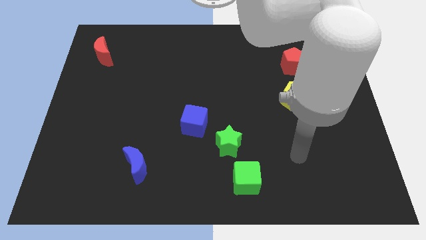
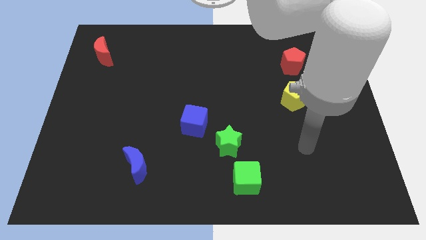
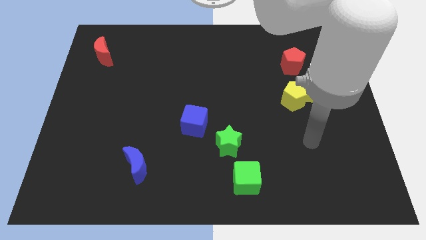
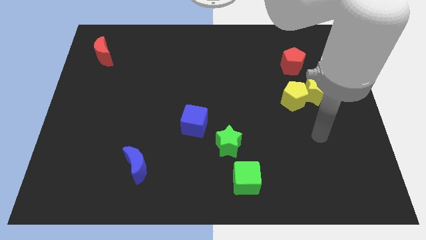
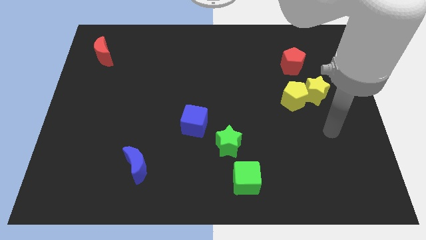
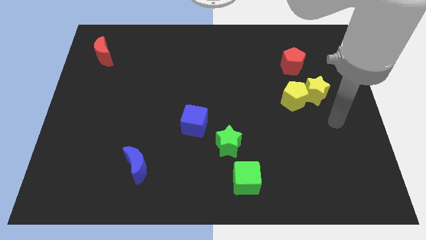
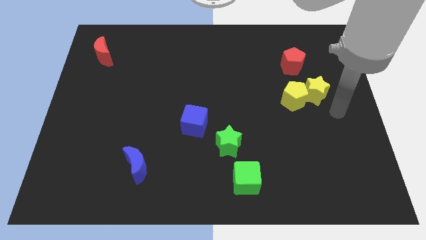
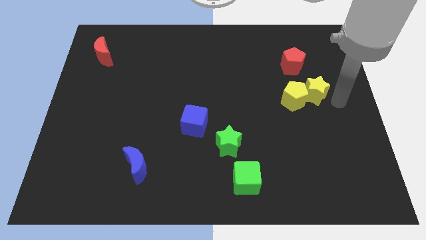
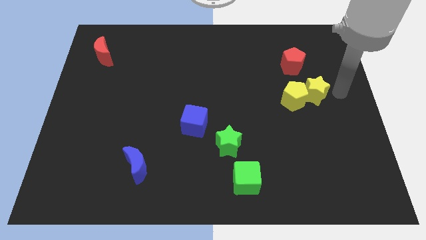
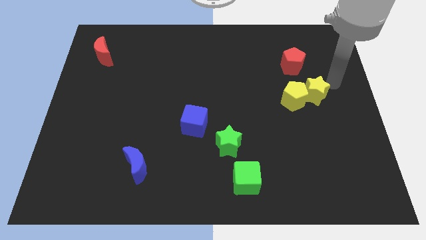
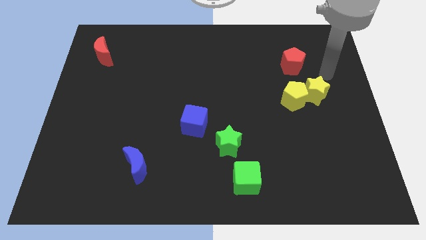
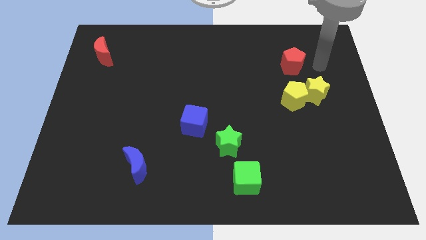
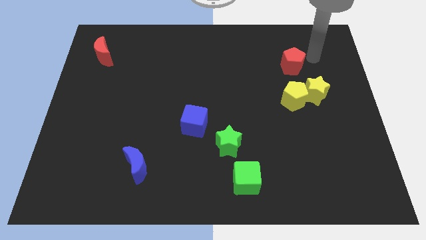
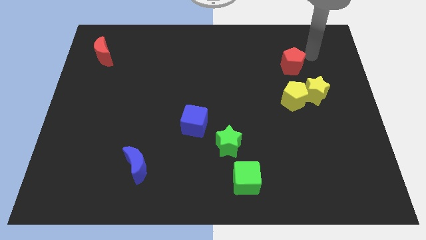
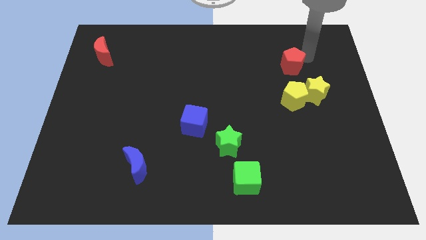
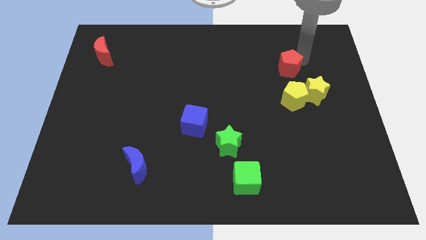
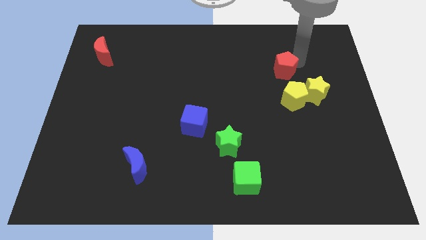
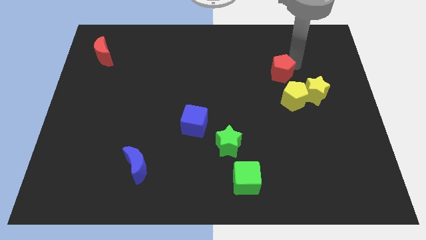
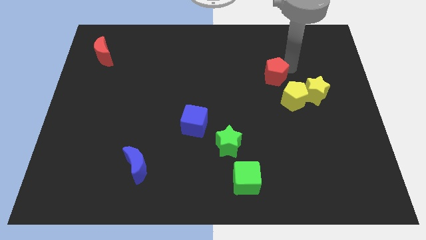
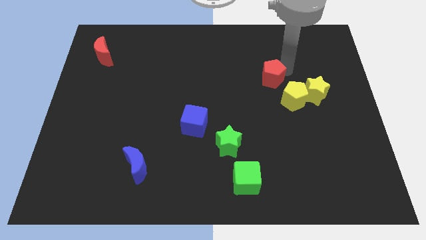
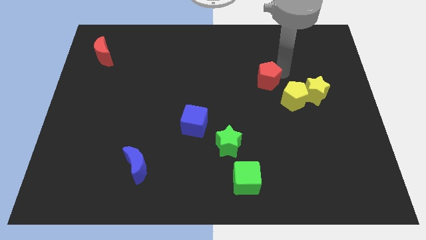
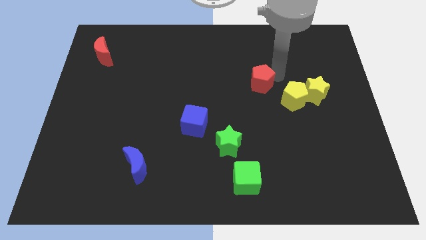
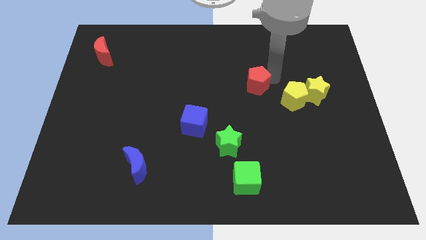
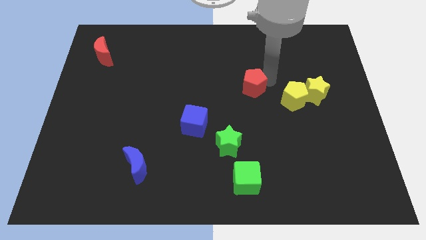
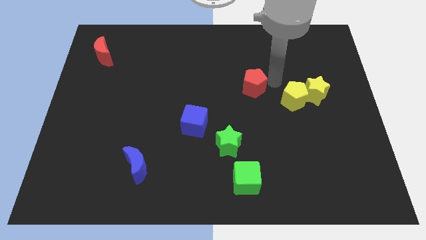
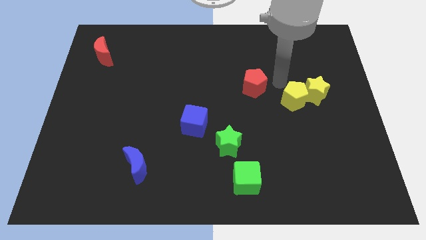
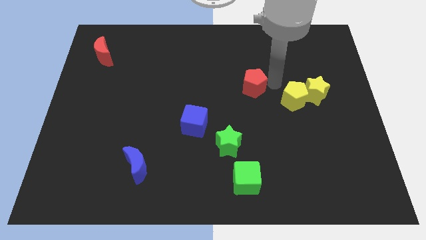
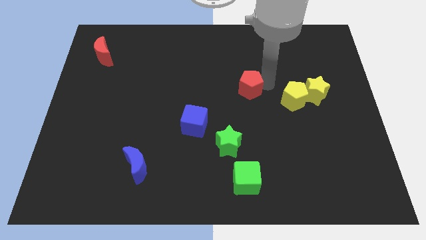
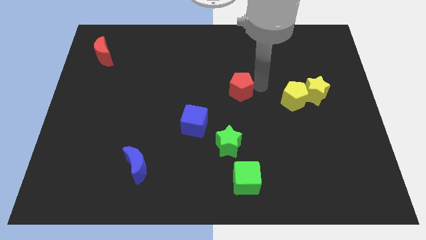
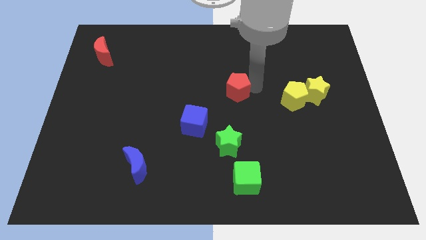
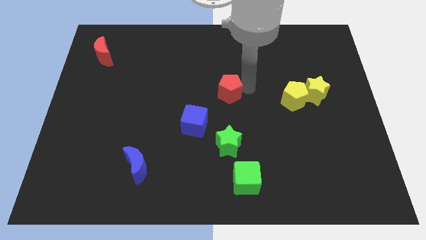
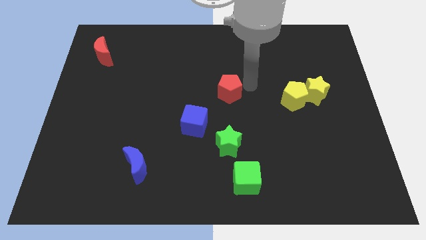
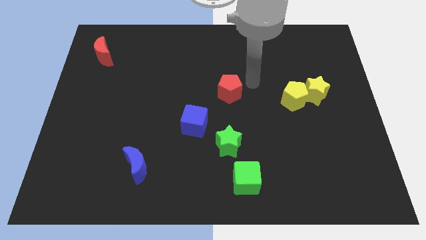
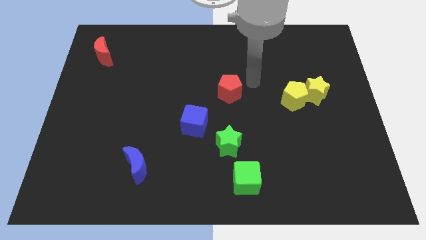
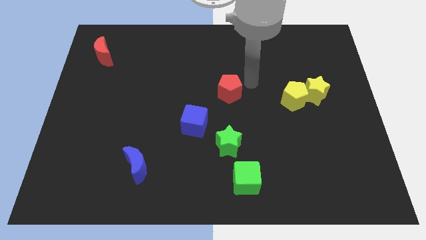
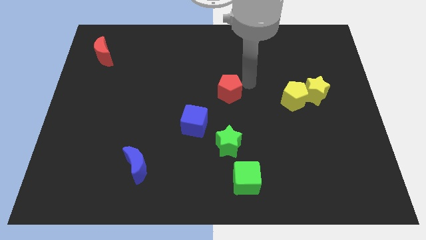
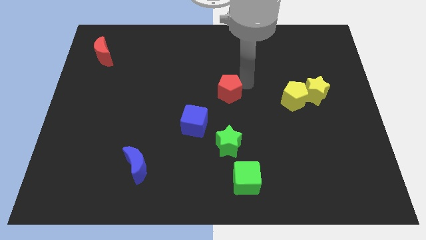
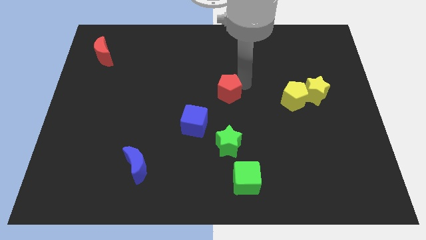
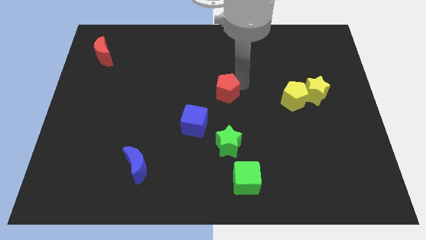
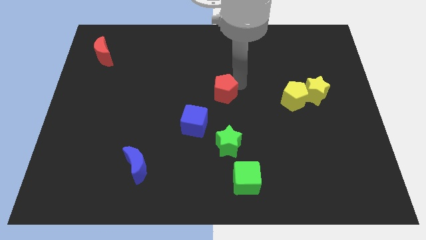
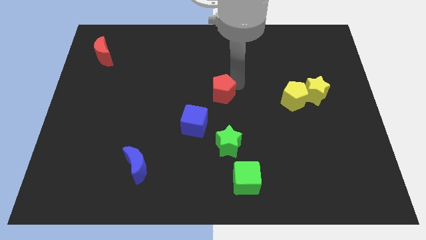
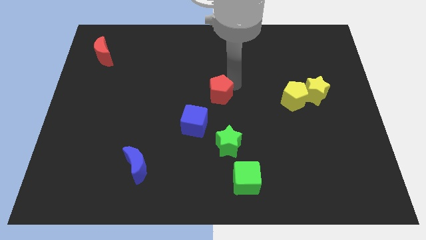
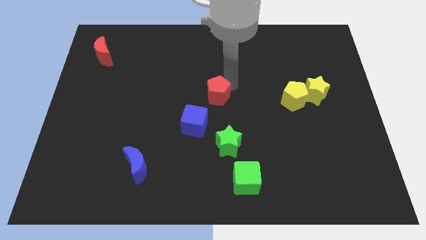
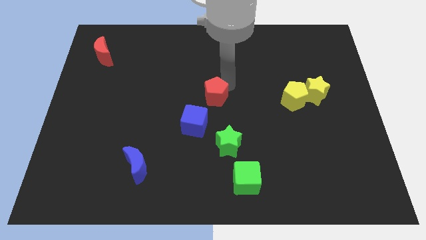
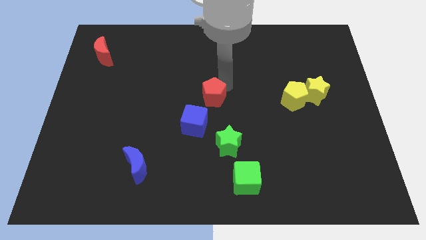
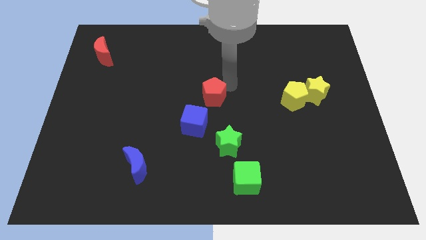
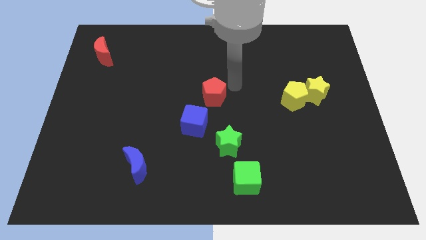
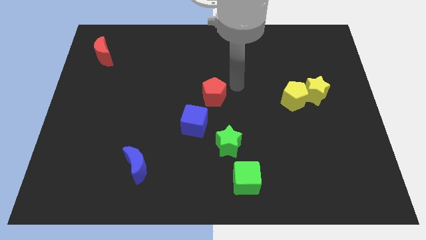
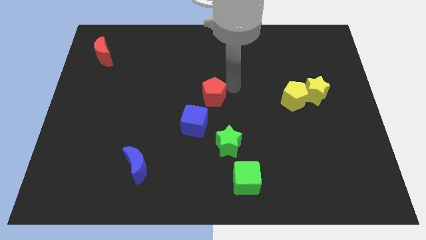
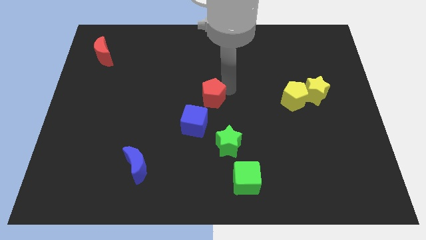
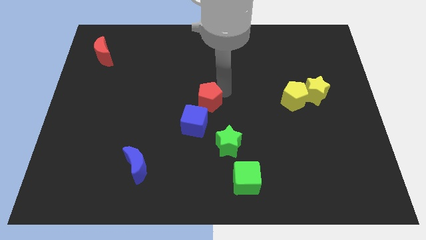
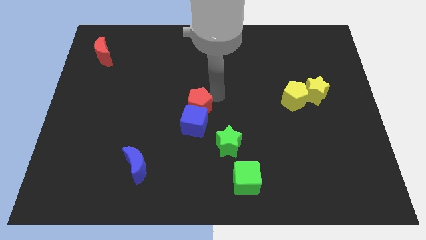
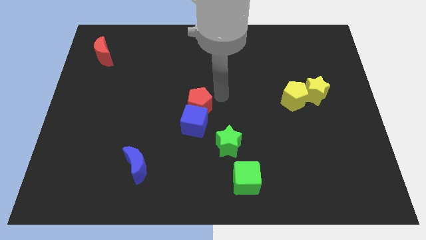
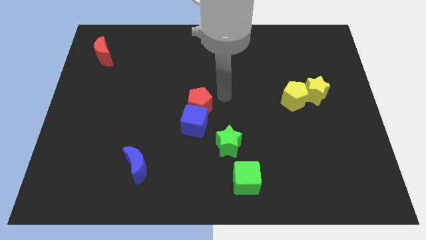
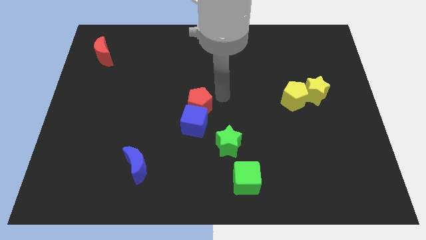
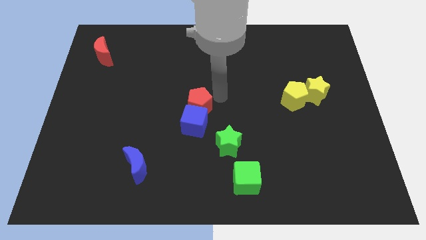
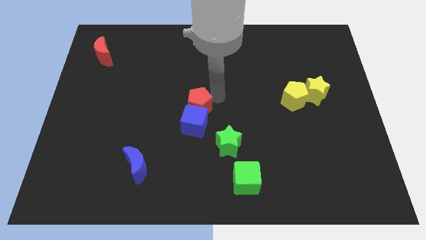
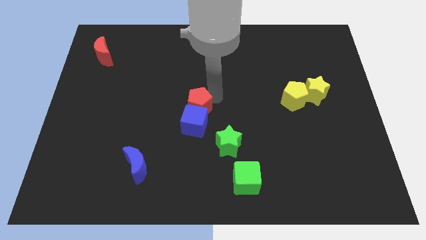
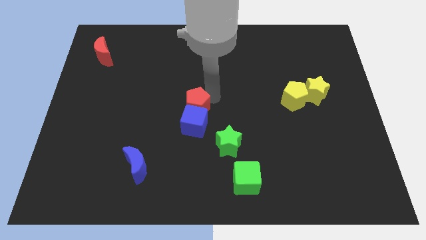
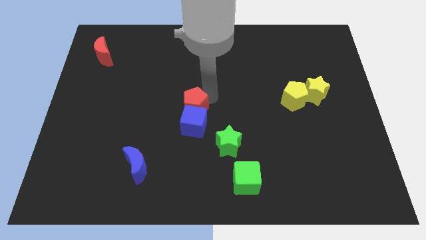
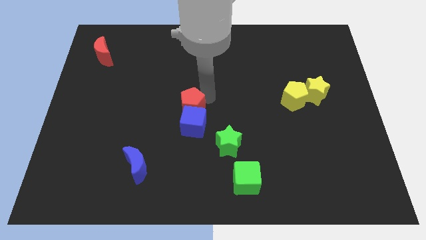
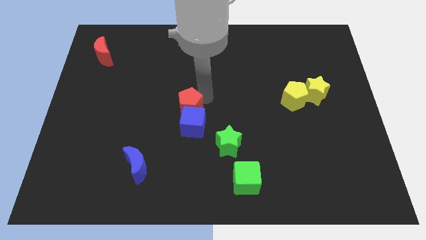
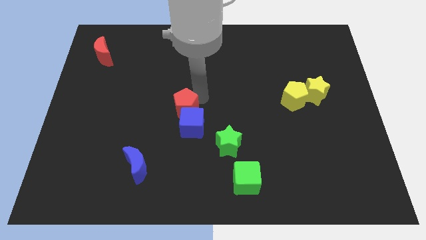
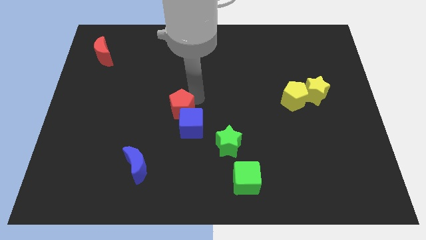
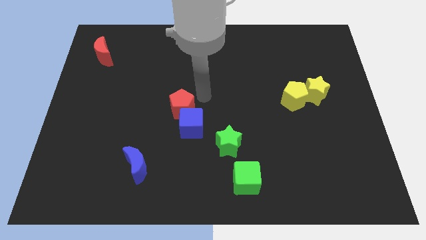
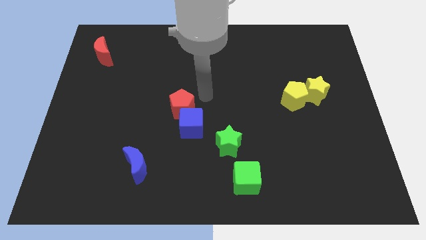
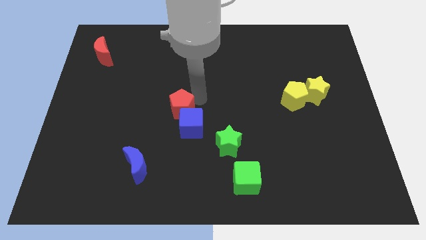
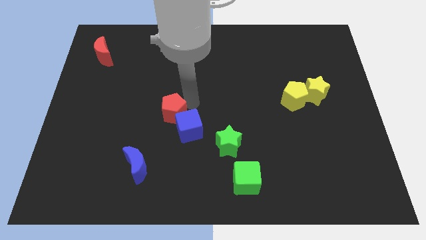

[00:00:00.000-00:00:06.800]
push the red pentagon to the left of the blue cube

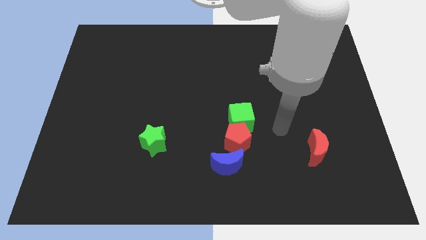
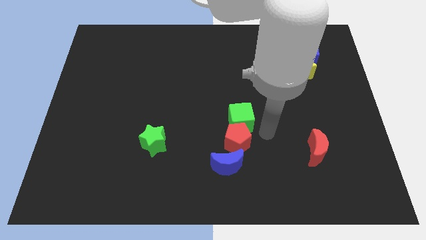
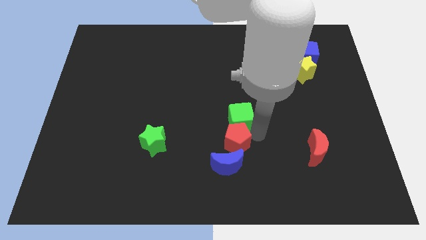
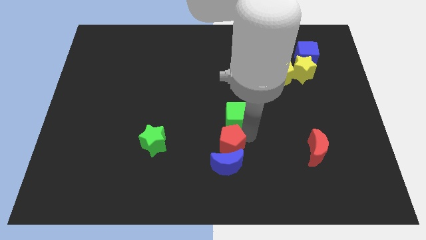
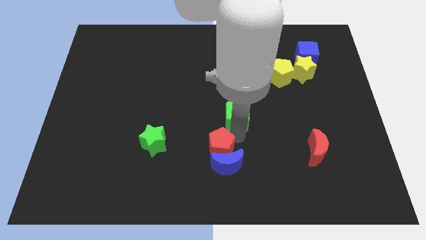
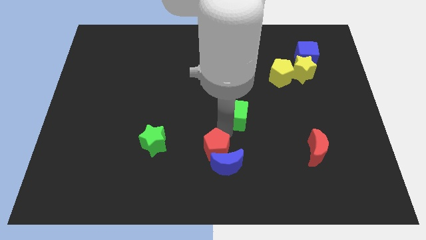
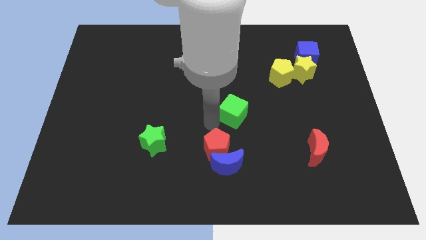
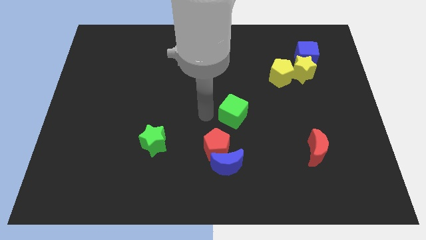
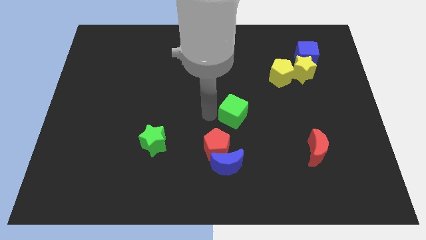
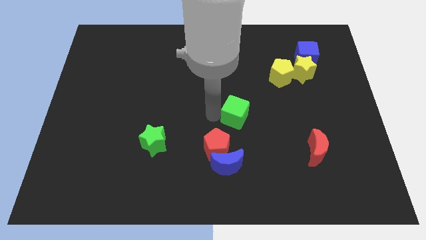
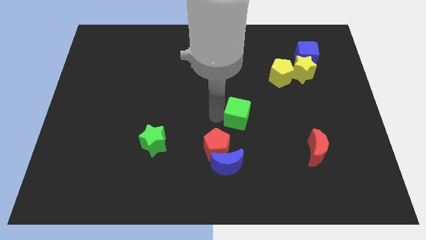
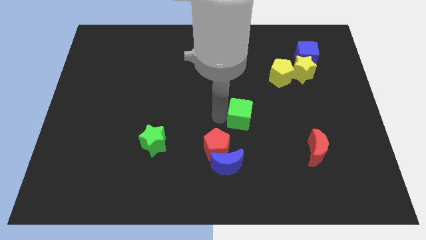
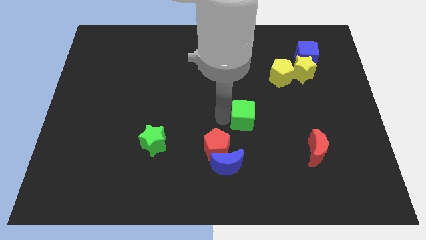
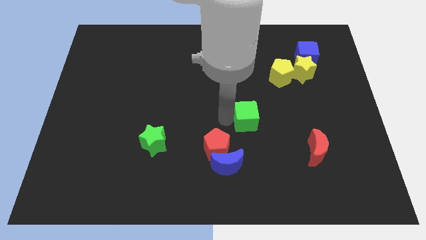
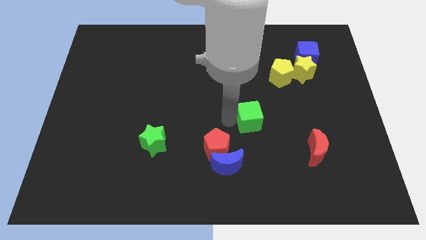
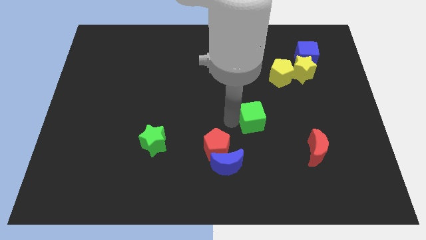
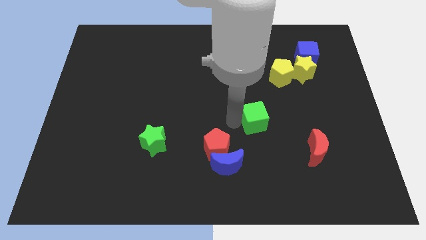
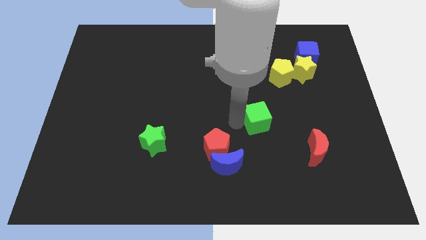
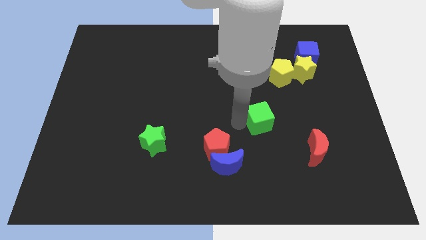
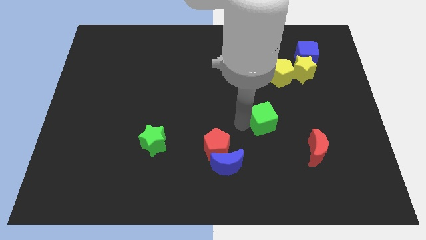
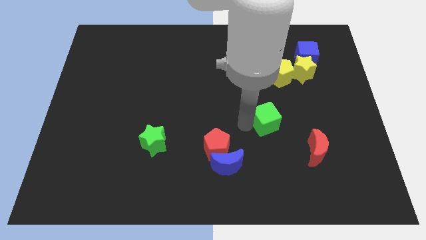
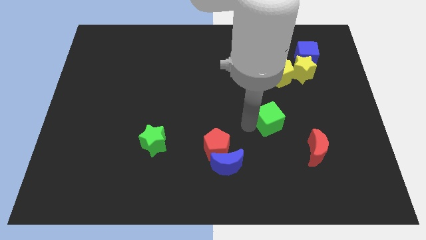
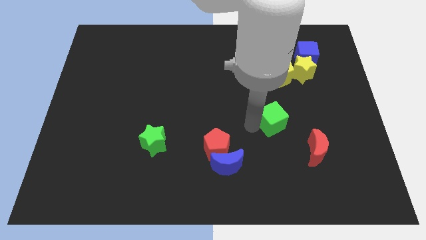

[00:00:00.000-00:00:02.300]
slide the green cube to the bottom of the yellow pentagon
